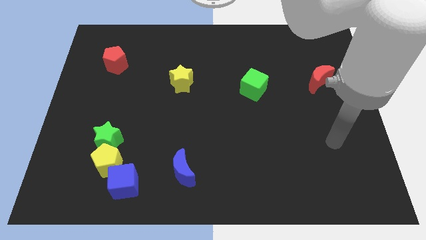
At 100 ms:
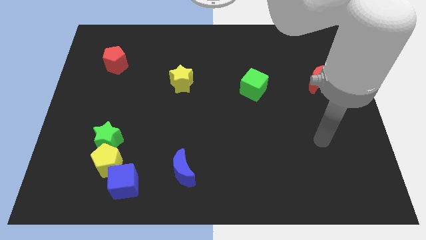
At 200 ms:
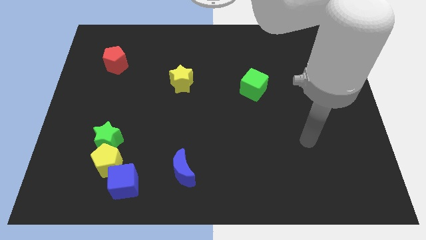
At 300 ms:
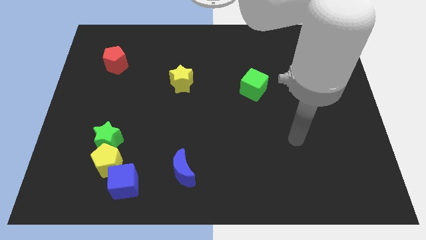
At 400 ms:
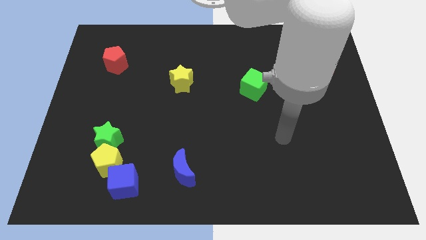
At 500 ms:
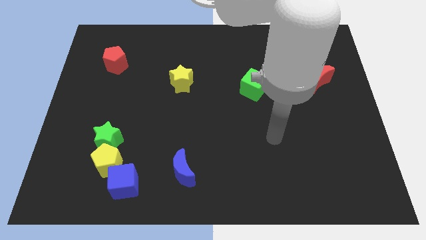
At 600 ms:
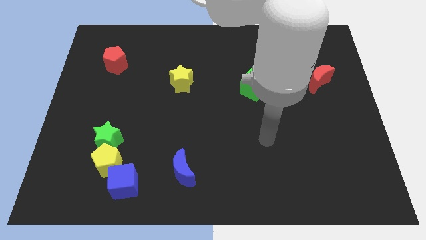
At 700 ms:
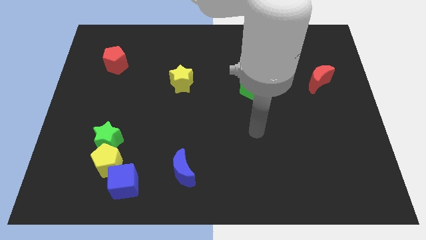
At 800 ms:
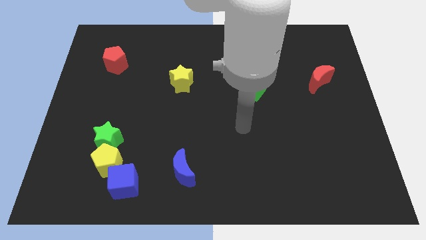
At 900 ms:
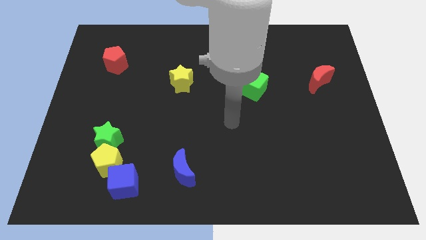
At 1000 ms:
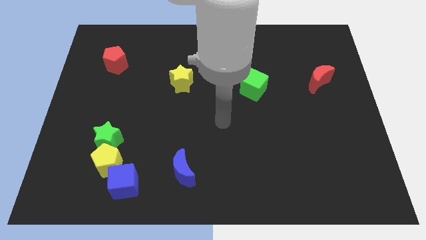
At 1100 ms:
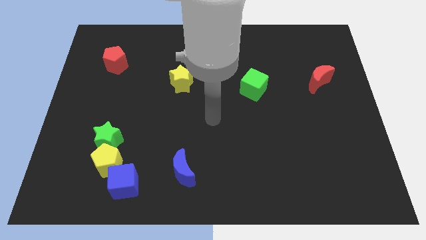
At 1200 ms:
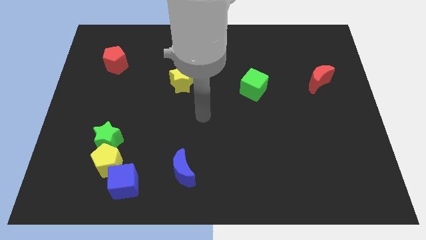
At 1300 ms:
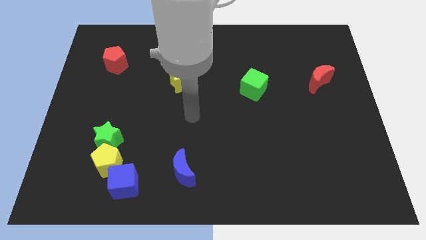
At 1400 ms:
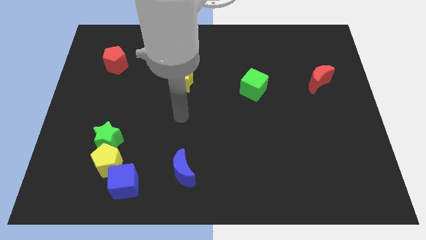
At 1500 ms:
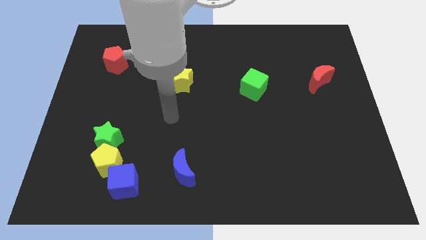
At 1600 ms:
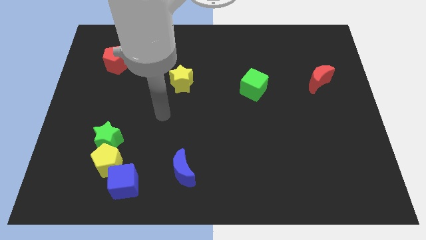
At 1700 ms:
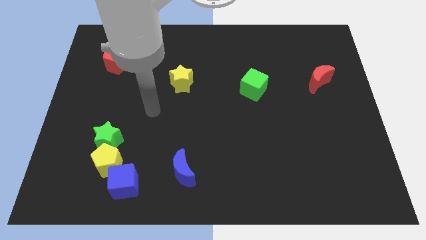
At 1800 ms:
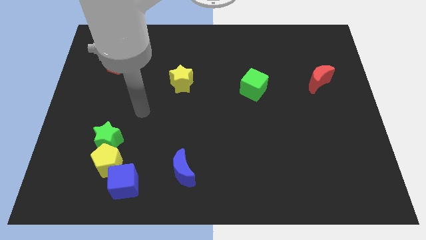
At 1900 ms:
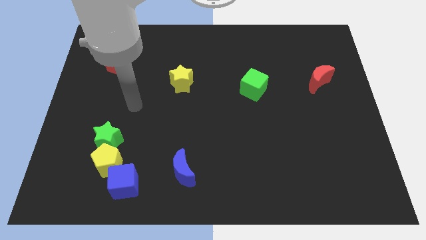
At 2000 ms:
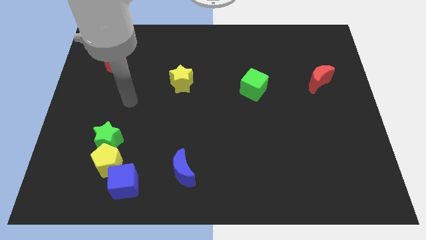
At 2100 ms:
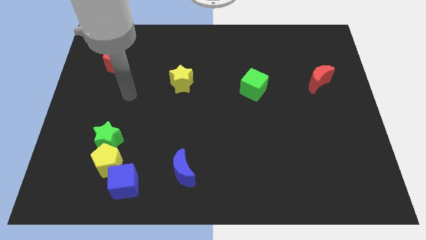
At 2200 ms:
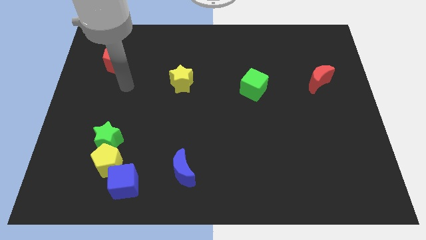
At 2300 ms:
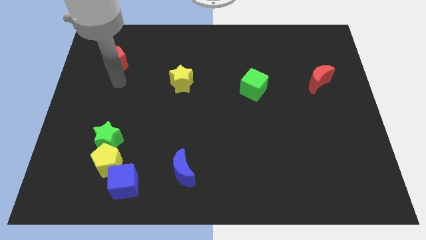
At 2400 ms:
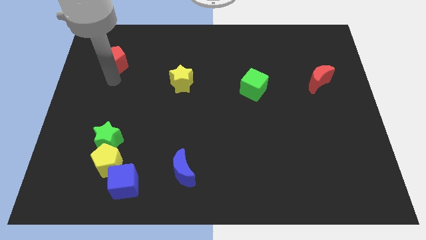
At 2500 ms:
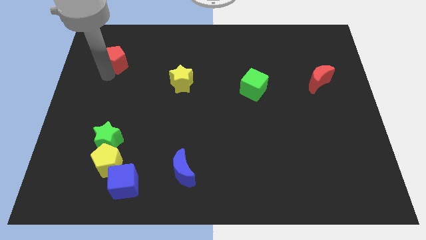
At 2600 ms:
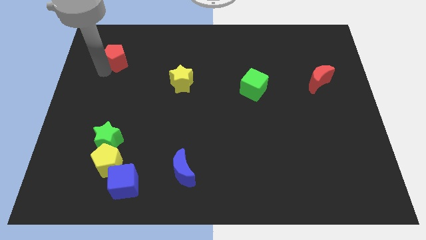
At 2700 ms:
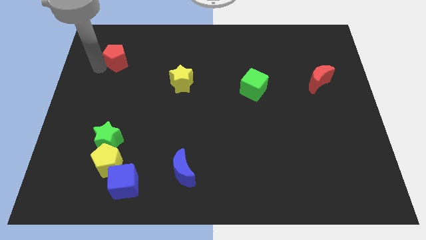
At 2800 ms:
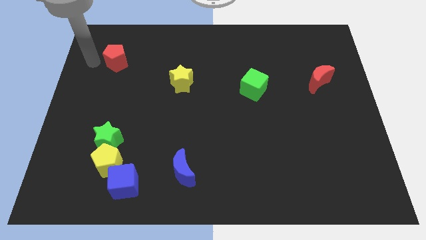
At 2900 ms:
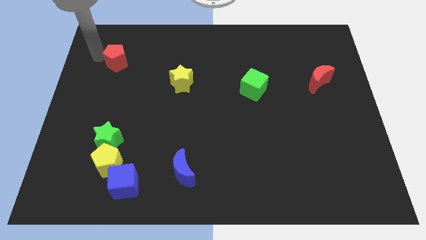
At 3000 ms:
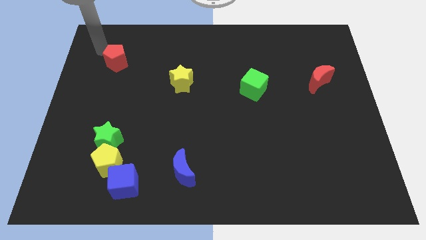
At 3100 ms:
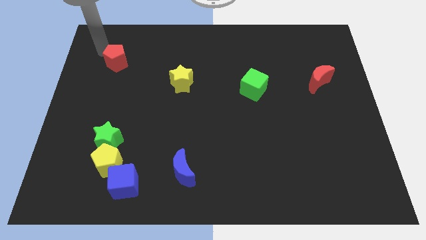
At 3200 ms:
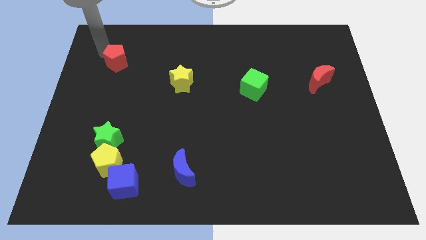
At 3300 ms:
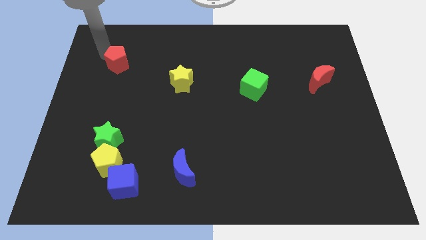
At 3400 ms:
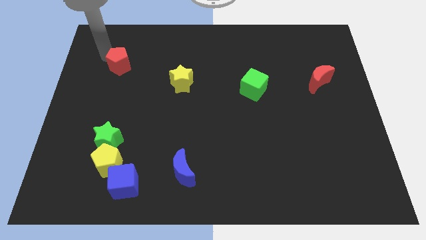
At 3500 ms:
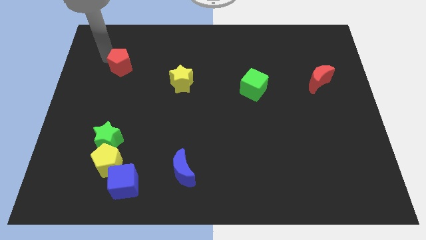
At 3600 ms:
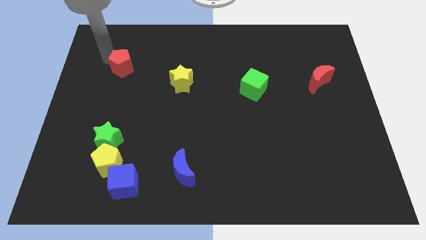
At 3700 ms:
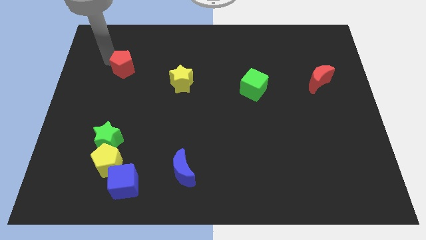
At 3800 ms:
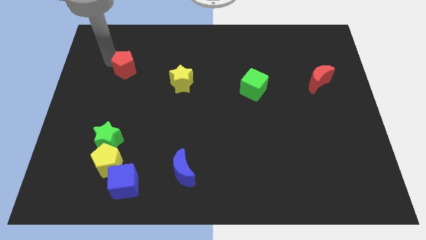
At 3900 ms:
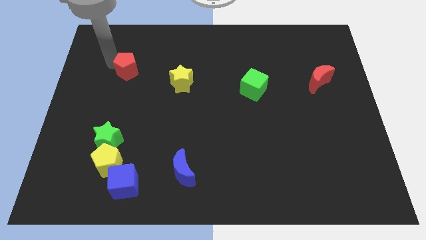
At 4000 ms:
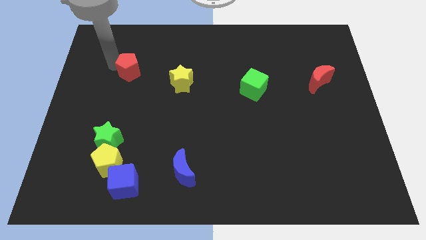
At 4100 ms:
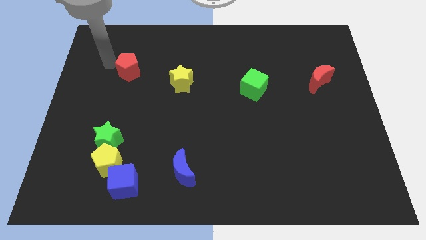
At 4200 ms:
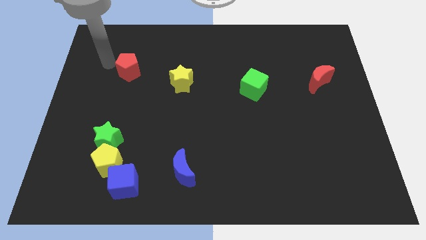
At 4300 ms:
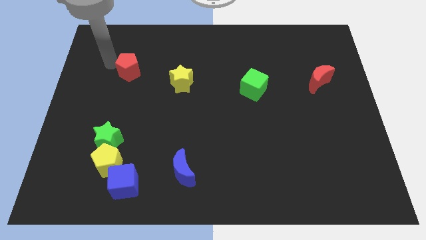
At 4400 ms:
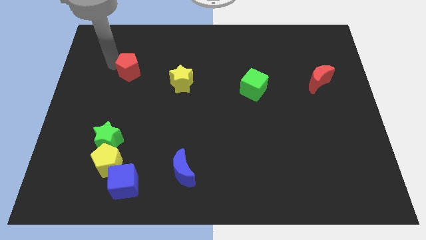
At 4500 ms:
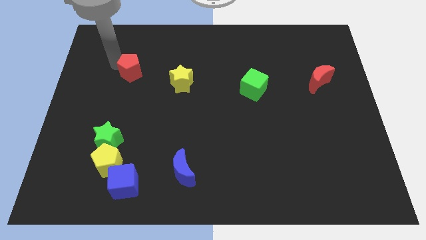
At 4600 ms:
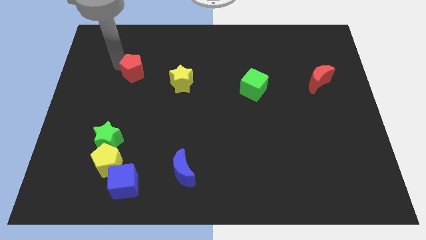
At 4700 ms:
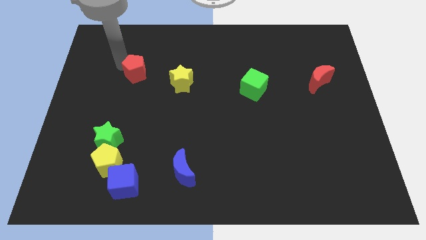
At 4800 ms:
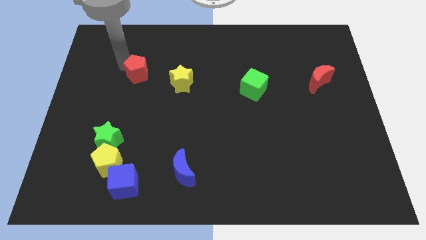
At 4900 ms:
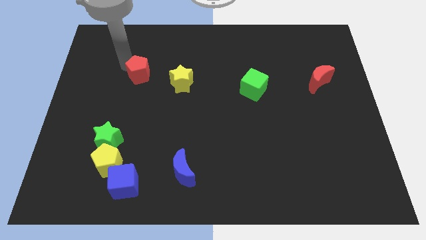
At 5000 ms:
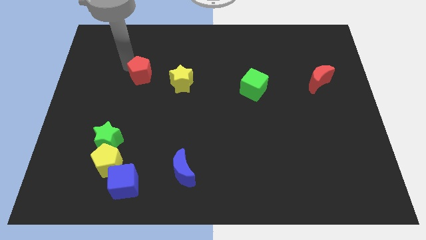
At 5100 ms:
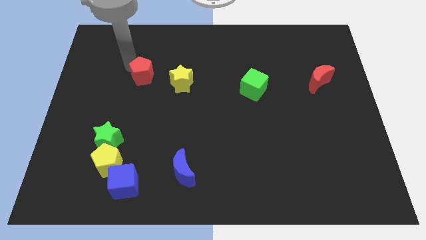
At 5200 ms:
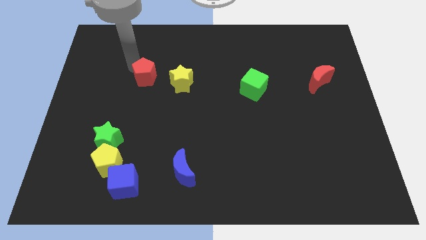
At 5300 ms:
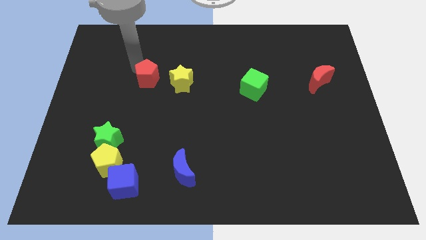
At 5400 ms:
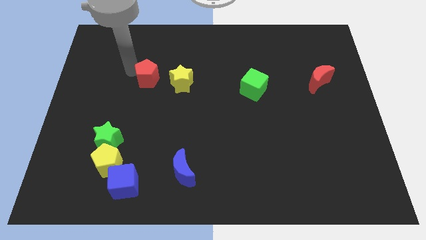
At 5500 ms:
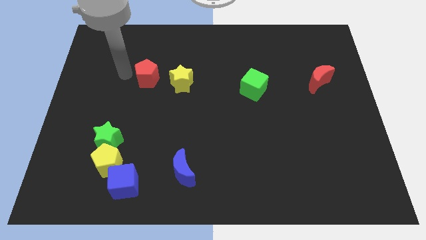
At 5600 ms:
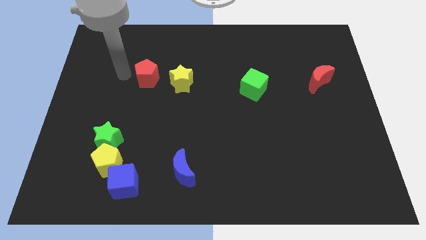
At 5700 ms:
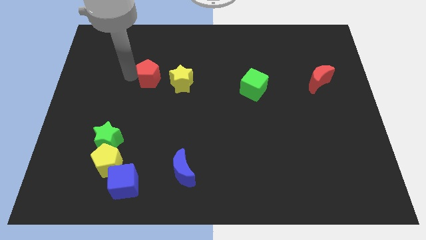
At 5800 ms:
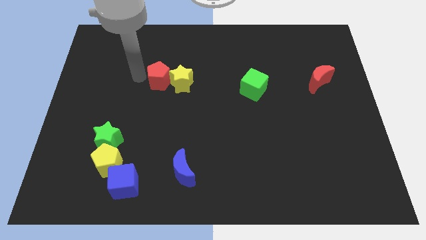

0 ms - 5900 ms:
push the red pentagon next to the yellow star

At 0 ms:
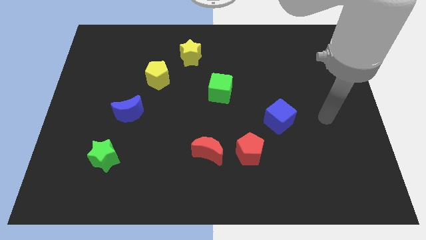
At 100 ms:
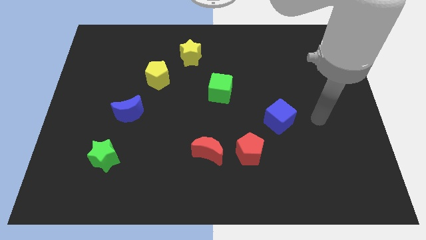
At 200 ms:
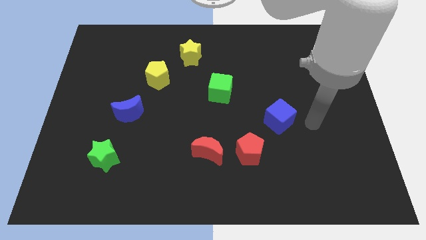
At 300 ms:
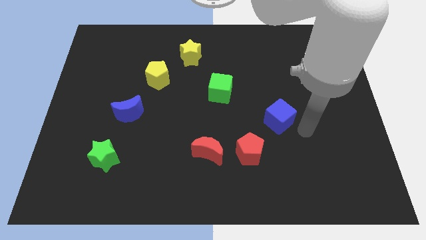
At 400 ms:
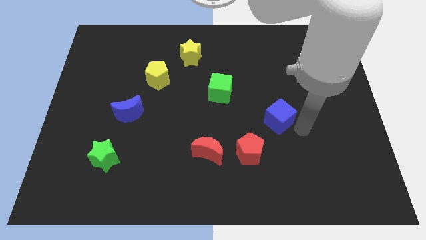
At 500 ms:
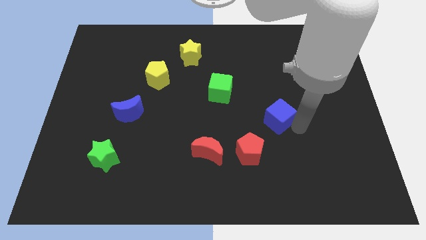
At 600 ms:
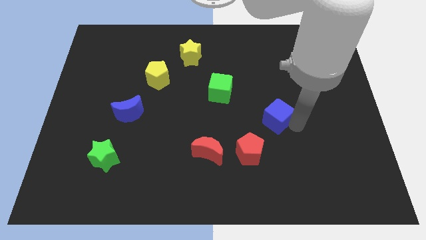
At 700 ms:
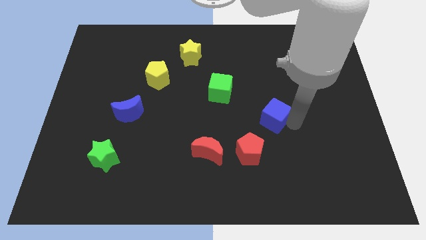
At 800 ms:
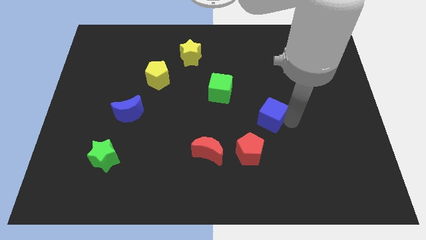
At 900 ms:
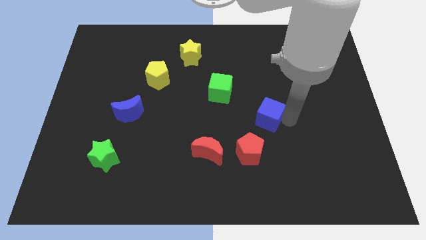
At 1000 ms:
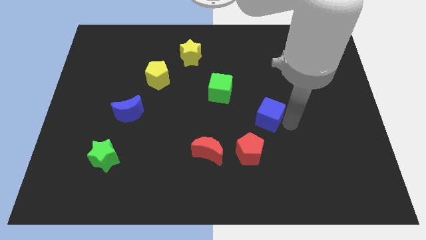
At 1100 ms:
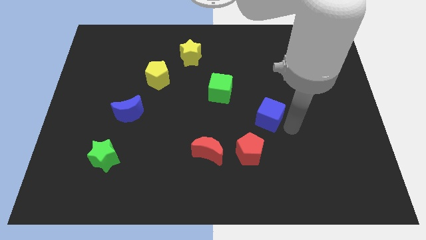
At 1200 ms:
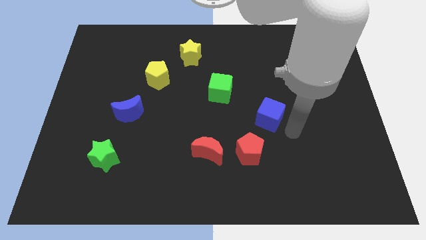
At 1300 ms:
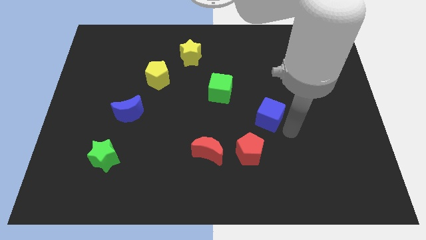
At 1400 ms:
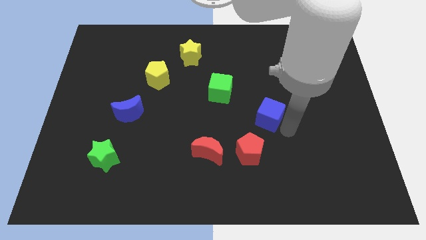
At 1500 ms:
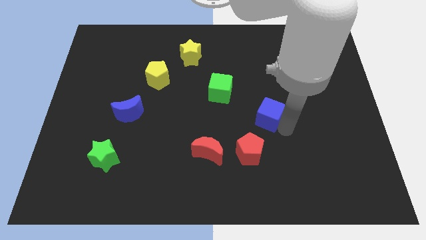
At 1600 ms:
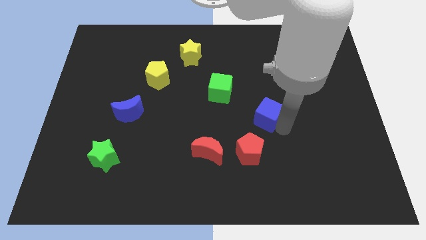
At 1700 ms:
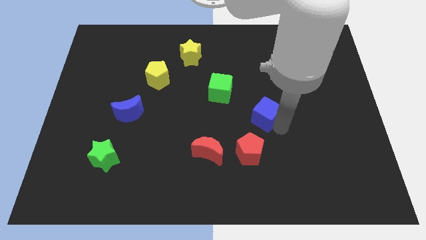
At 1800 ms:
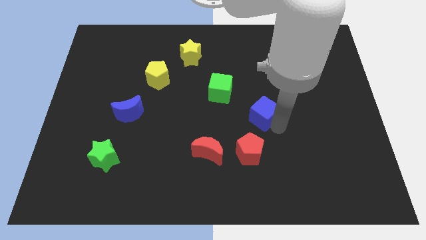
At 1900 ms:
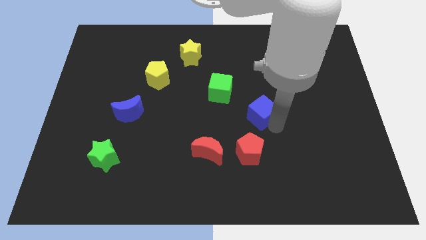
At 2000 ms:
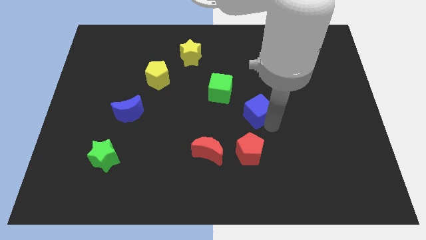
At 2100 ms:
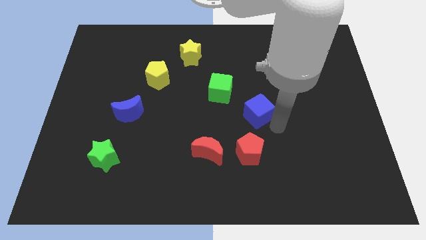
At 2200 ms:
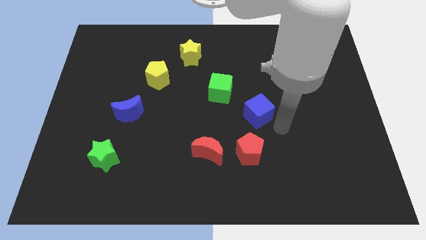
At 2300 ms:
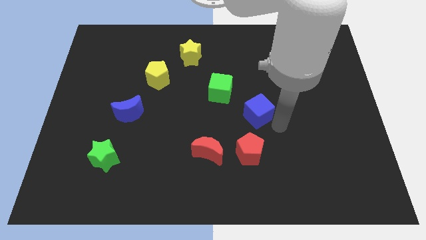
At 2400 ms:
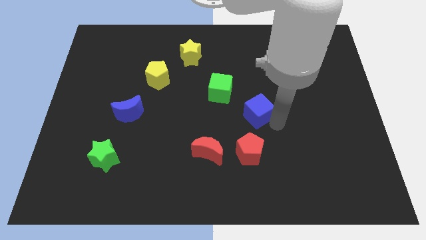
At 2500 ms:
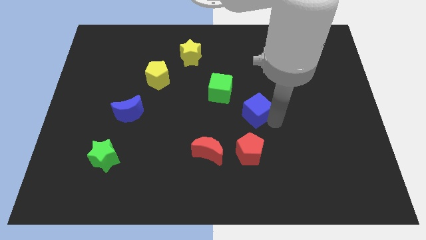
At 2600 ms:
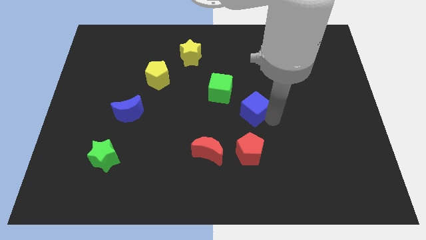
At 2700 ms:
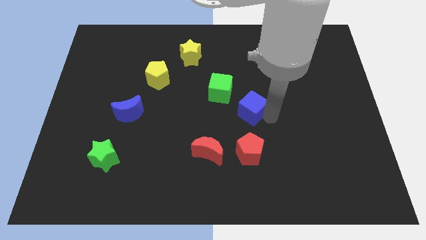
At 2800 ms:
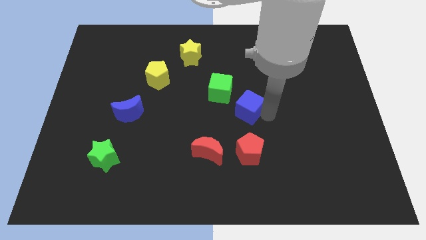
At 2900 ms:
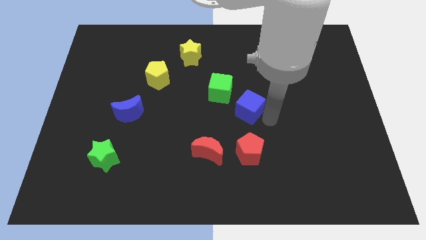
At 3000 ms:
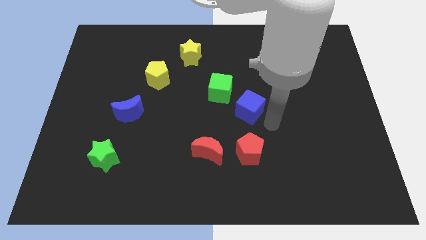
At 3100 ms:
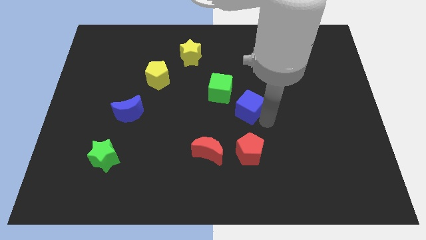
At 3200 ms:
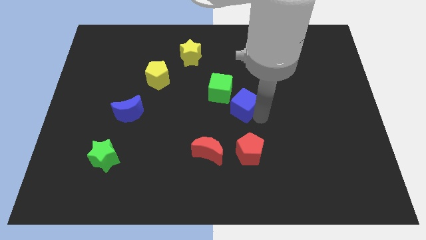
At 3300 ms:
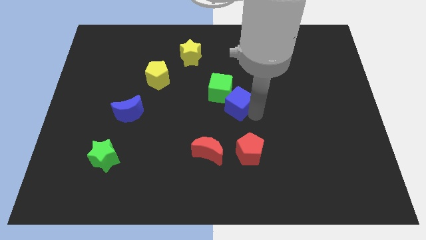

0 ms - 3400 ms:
put the blue cube close to the green cube
